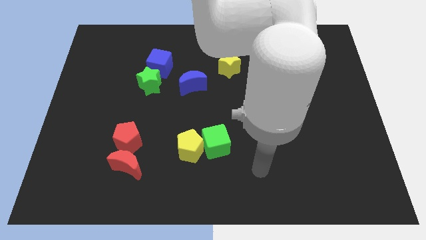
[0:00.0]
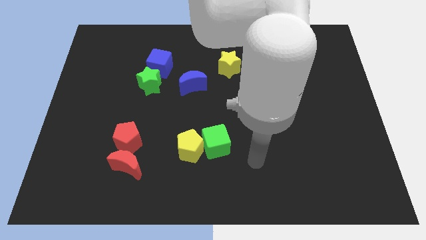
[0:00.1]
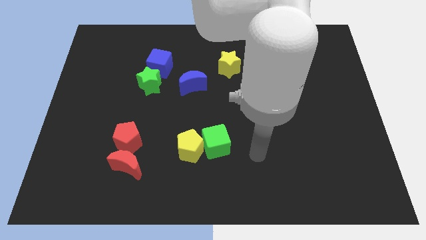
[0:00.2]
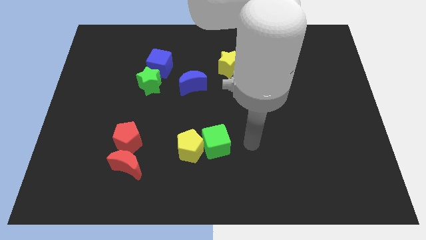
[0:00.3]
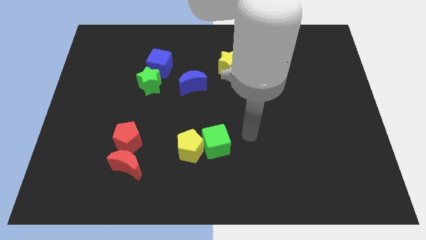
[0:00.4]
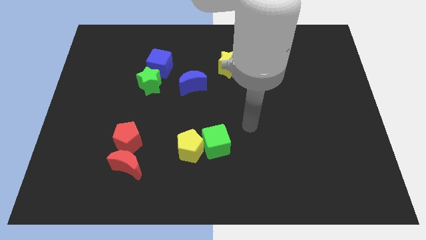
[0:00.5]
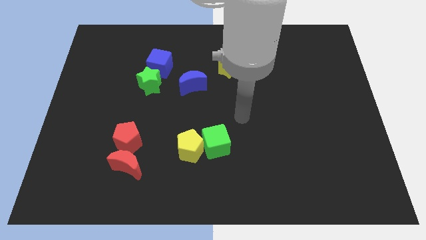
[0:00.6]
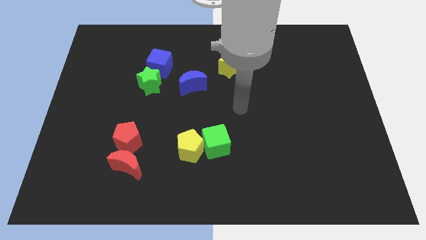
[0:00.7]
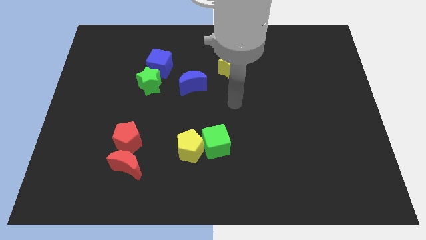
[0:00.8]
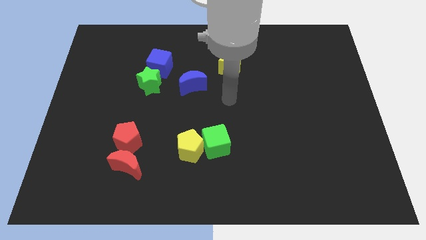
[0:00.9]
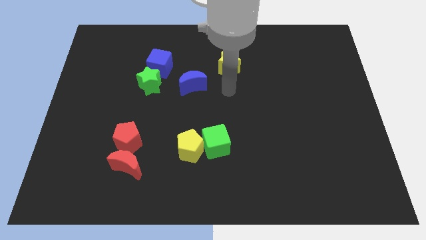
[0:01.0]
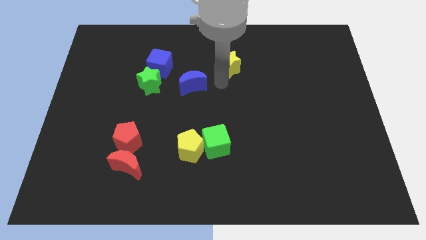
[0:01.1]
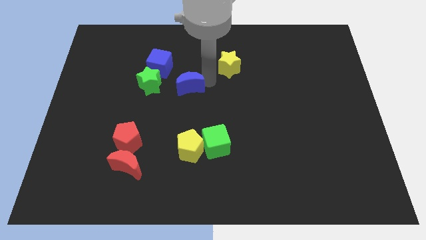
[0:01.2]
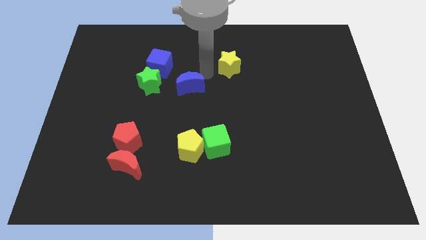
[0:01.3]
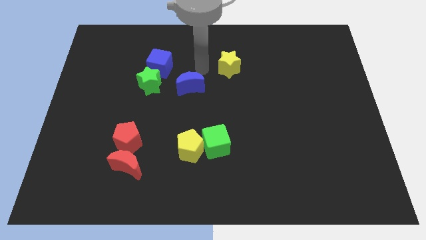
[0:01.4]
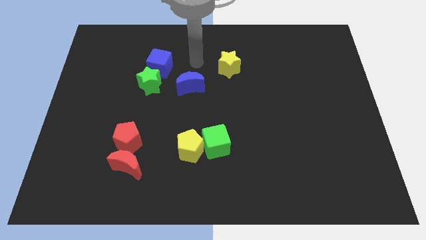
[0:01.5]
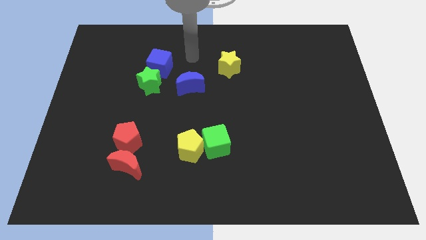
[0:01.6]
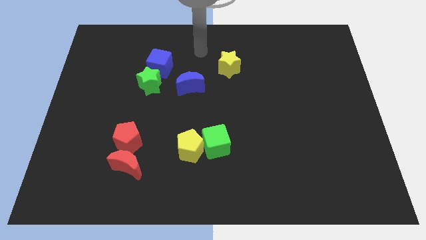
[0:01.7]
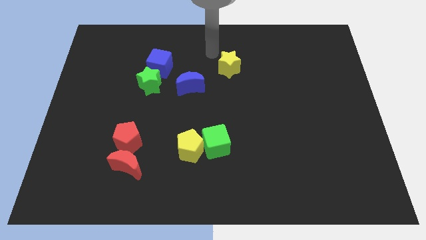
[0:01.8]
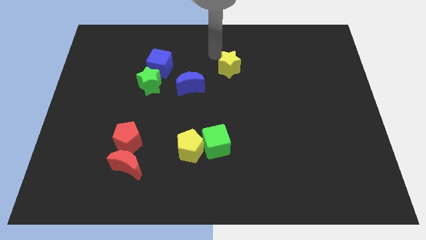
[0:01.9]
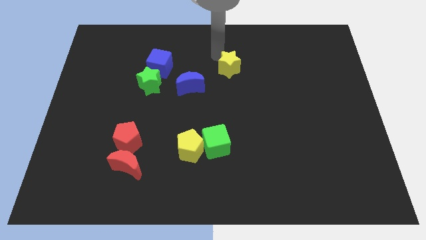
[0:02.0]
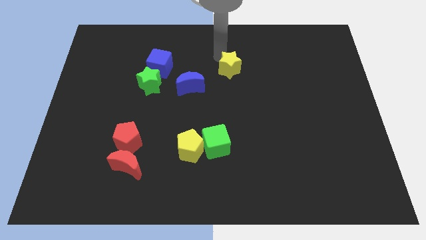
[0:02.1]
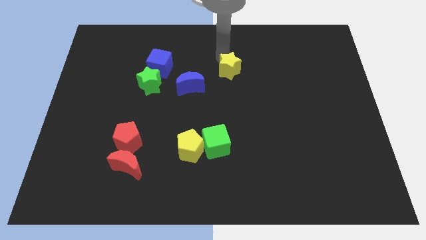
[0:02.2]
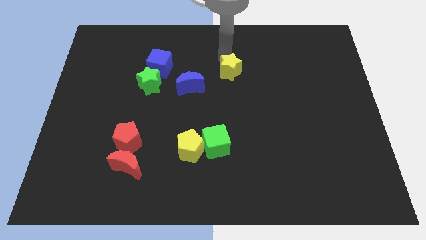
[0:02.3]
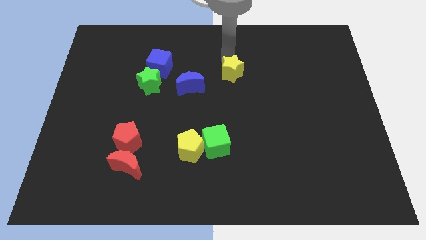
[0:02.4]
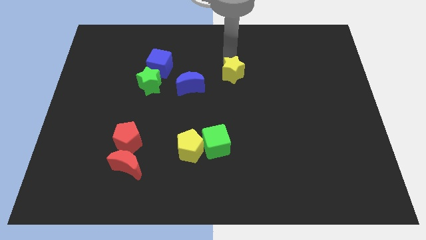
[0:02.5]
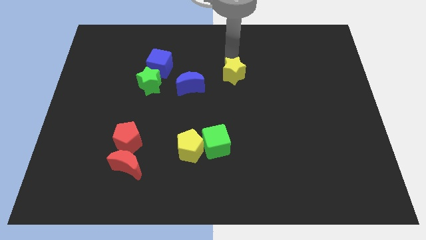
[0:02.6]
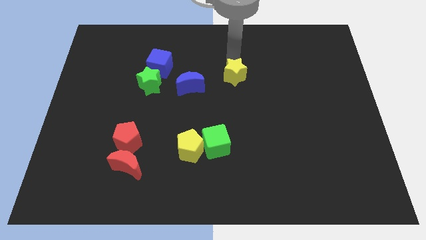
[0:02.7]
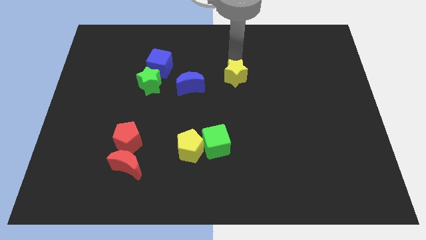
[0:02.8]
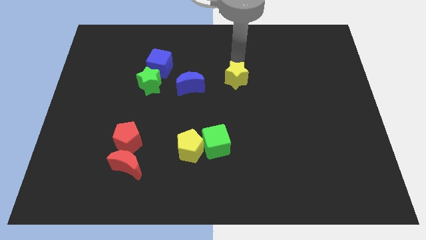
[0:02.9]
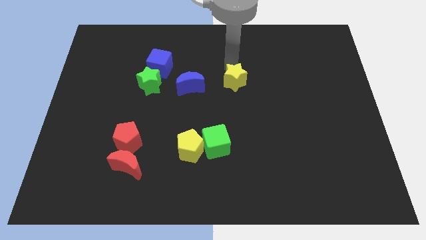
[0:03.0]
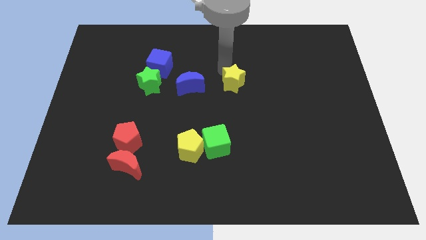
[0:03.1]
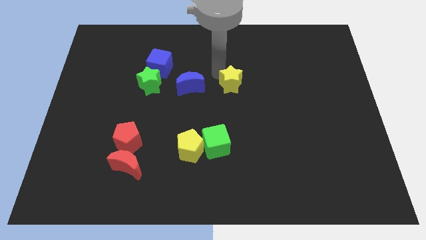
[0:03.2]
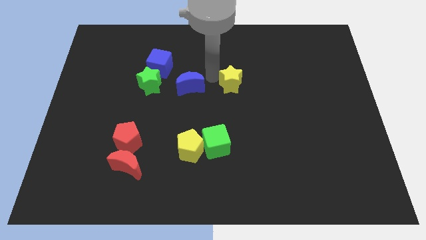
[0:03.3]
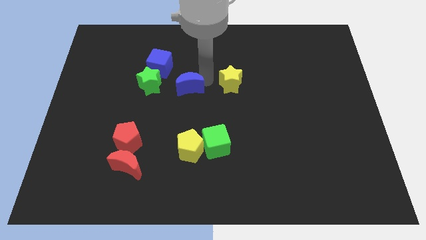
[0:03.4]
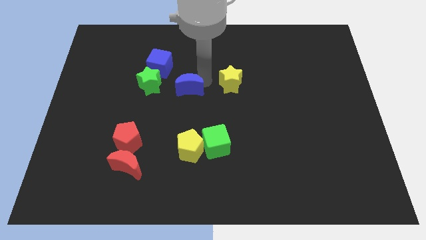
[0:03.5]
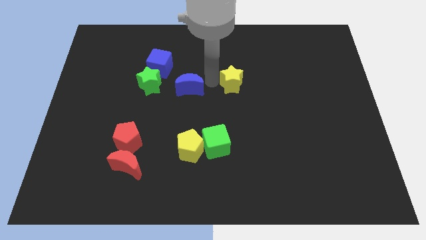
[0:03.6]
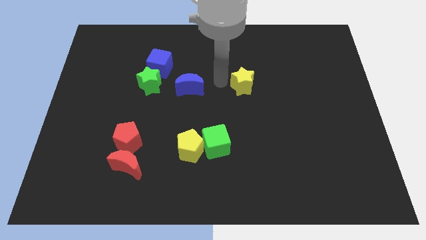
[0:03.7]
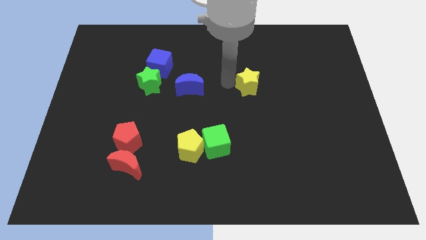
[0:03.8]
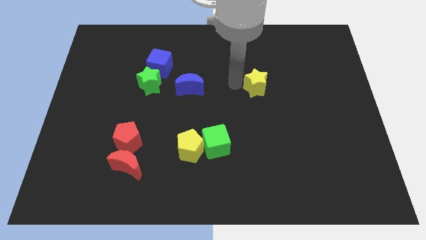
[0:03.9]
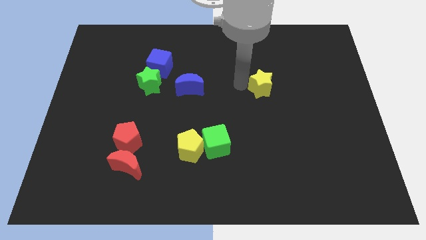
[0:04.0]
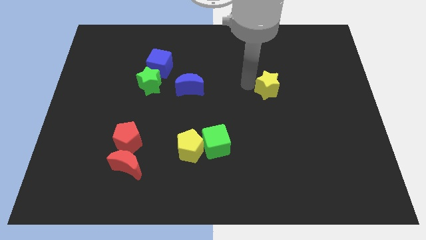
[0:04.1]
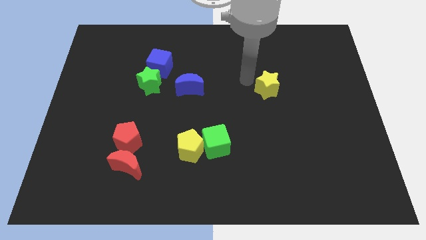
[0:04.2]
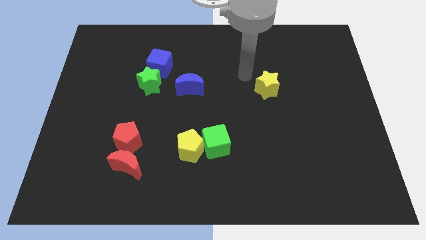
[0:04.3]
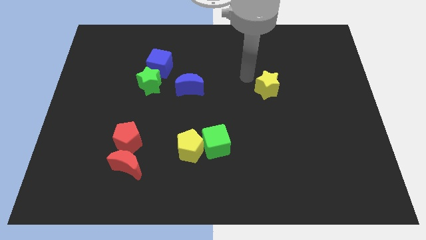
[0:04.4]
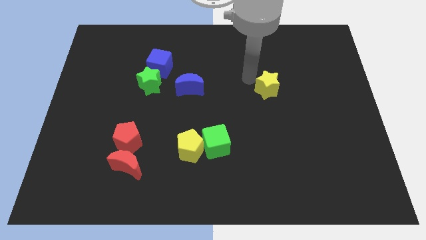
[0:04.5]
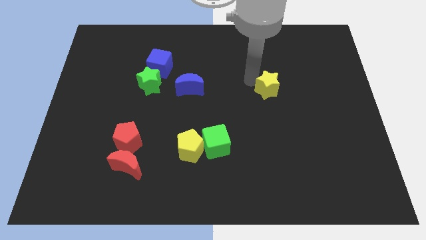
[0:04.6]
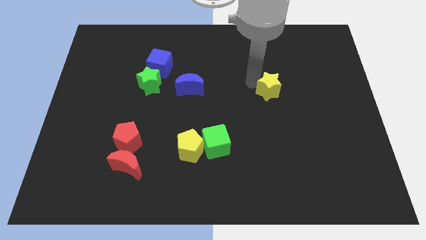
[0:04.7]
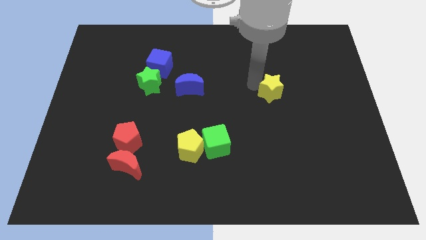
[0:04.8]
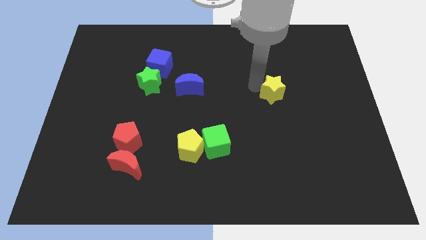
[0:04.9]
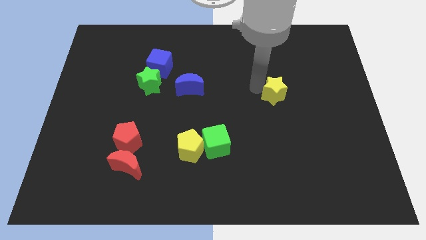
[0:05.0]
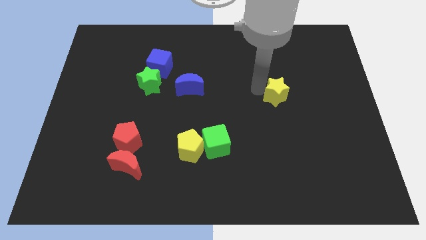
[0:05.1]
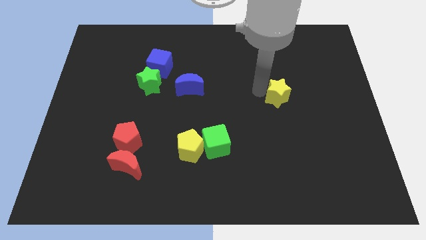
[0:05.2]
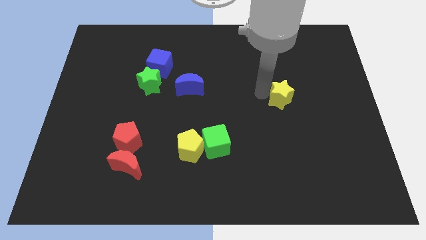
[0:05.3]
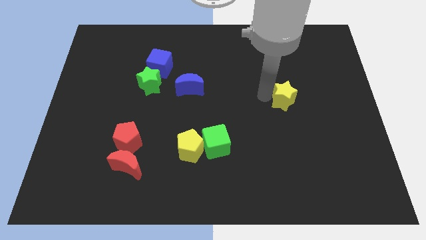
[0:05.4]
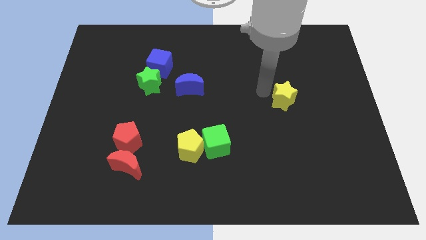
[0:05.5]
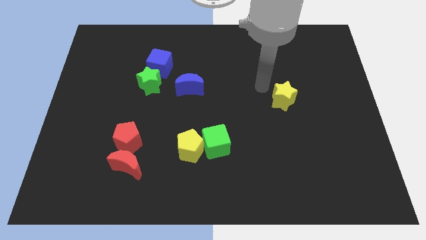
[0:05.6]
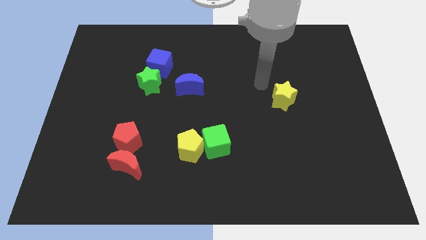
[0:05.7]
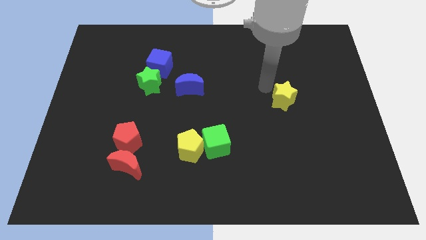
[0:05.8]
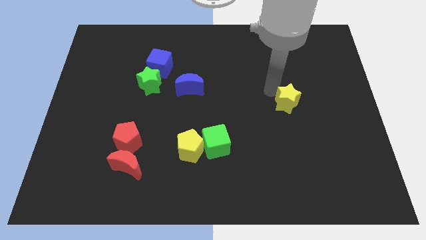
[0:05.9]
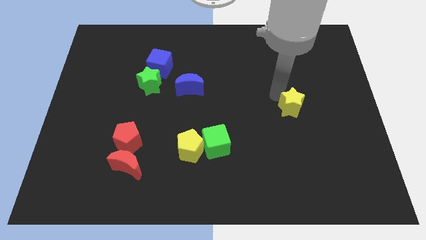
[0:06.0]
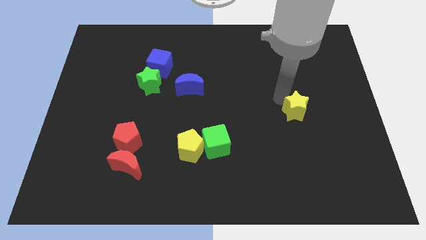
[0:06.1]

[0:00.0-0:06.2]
slide the yellow star downwards and right

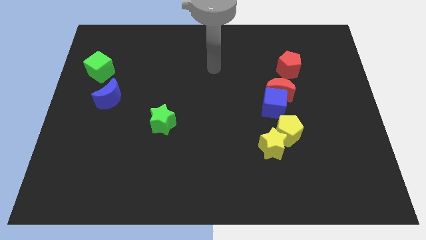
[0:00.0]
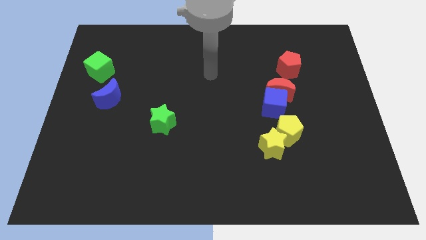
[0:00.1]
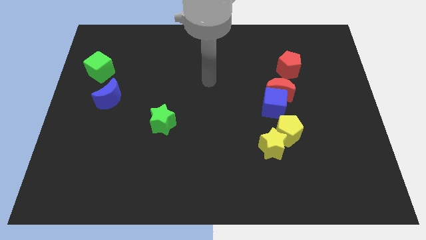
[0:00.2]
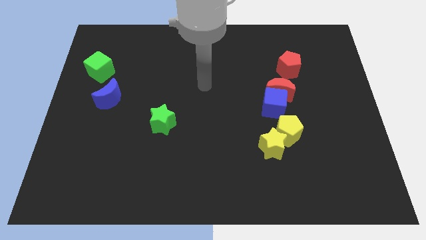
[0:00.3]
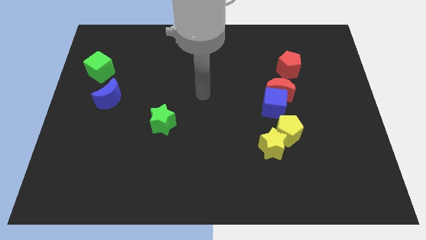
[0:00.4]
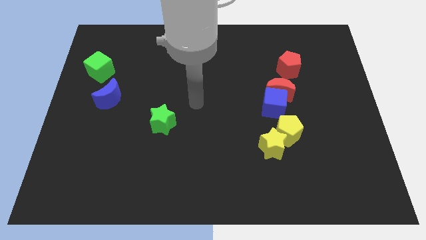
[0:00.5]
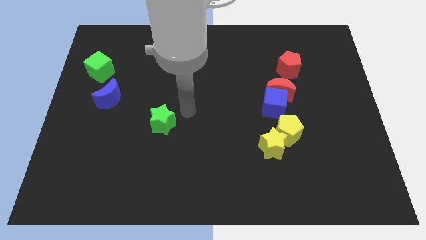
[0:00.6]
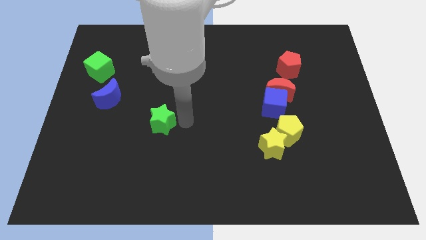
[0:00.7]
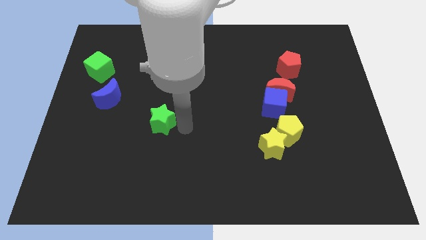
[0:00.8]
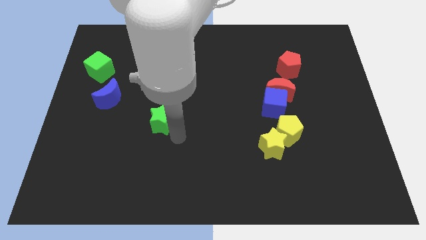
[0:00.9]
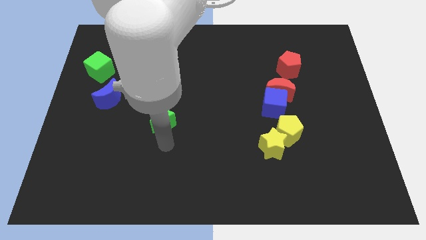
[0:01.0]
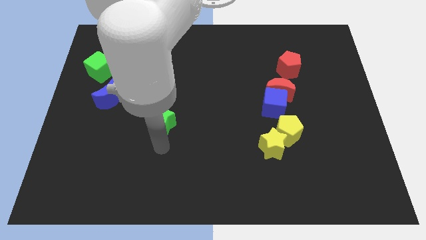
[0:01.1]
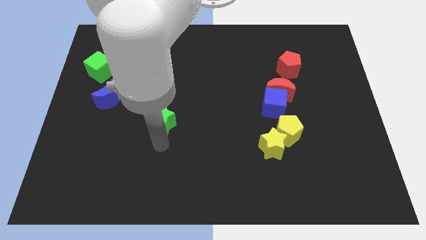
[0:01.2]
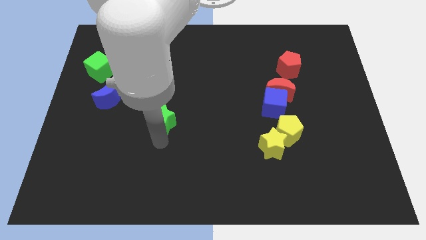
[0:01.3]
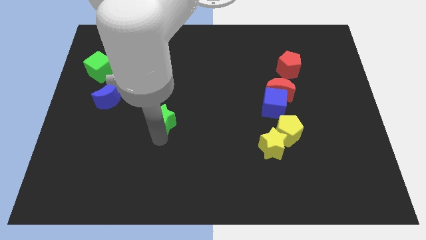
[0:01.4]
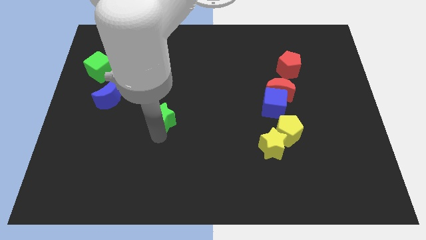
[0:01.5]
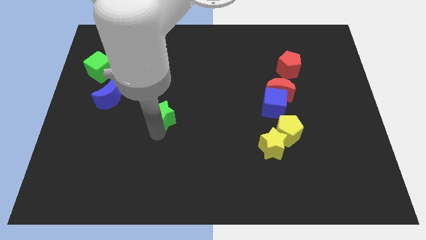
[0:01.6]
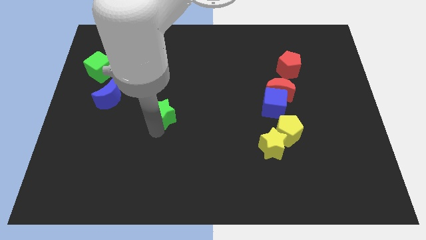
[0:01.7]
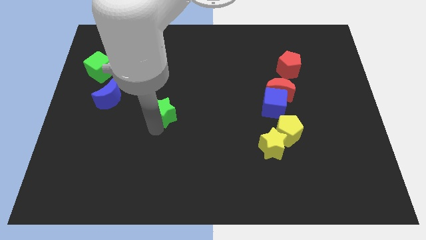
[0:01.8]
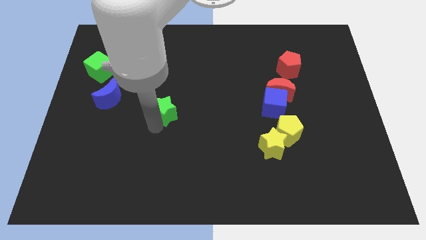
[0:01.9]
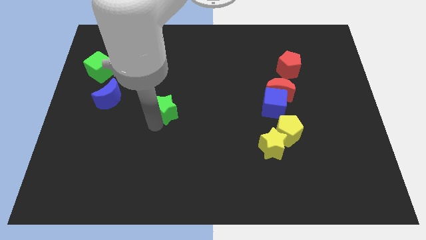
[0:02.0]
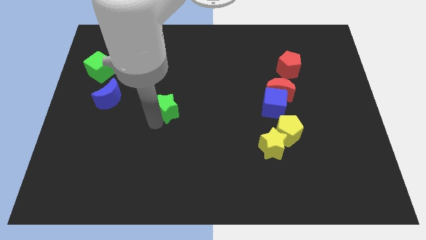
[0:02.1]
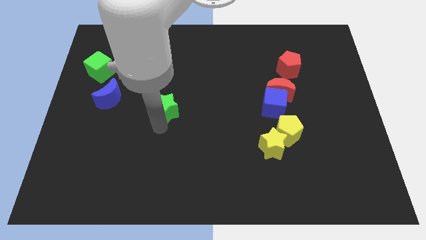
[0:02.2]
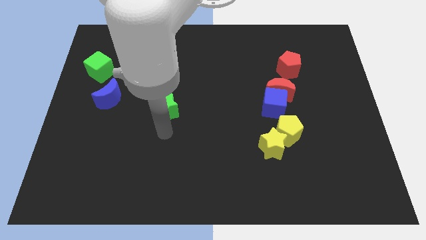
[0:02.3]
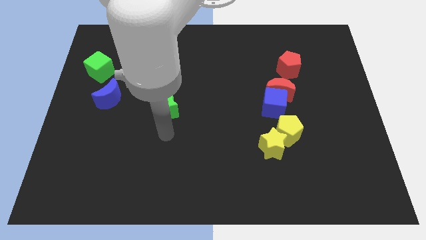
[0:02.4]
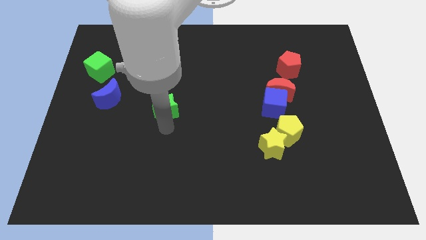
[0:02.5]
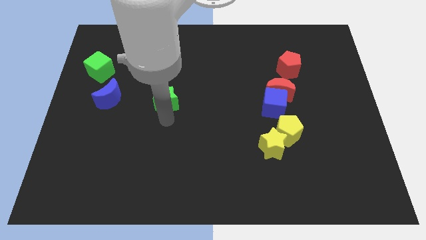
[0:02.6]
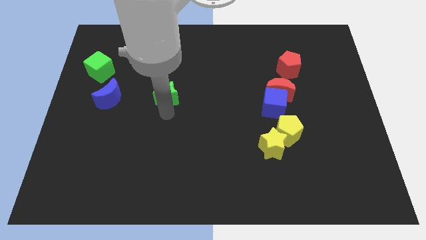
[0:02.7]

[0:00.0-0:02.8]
push the green star somewhat up
